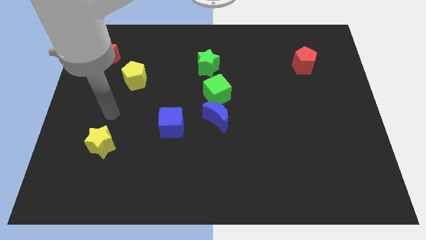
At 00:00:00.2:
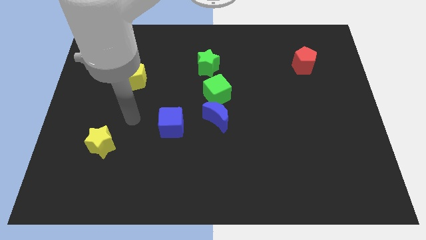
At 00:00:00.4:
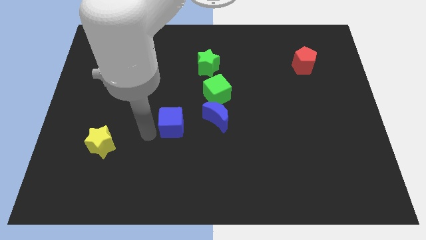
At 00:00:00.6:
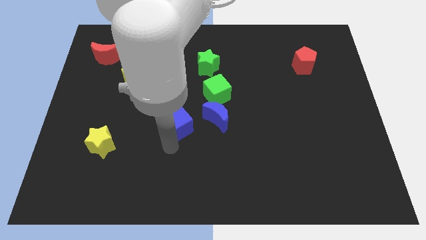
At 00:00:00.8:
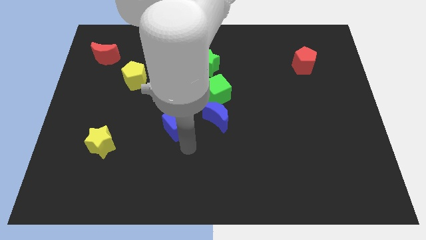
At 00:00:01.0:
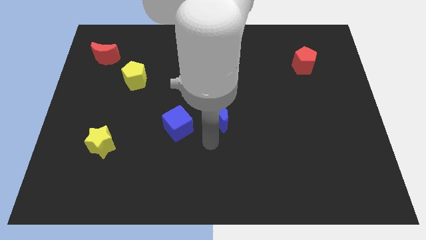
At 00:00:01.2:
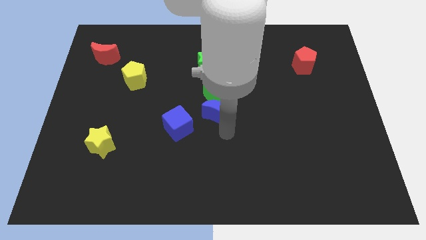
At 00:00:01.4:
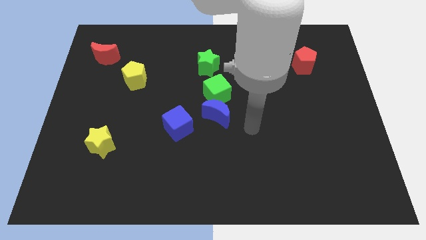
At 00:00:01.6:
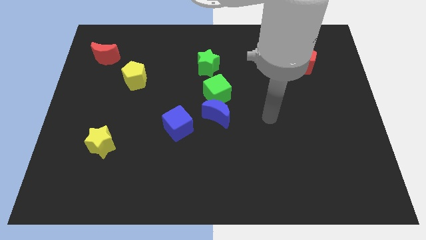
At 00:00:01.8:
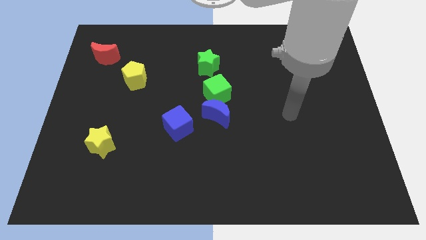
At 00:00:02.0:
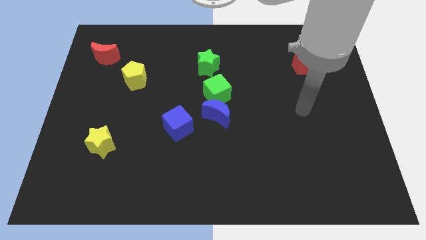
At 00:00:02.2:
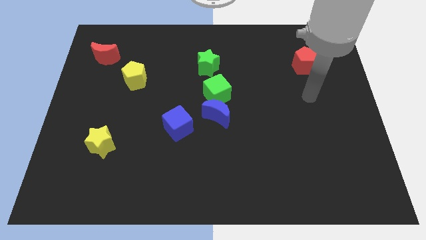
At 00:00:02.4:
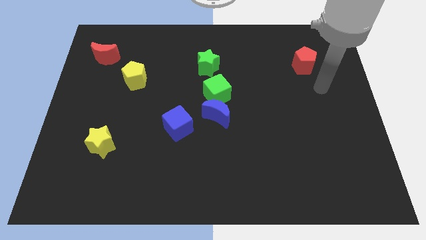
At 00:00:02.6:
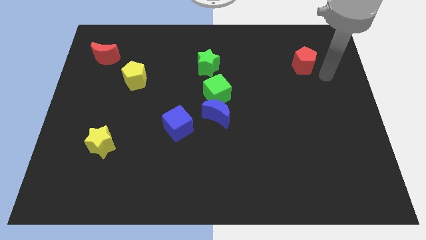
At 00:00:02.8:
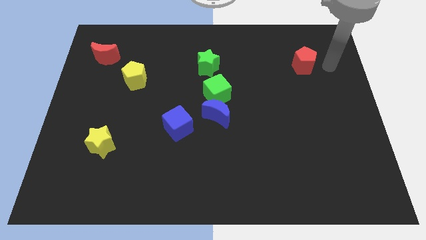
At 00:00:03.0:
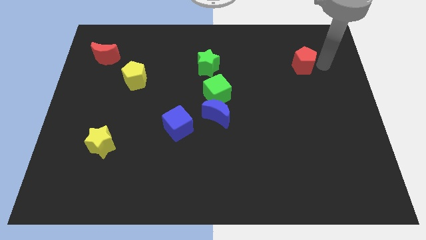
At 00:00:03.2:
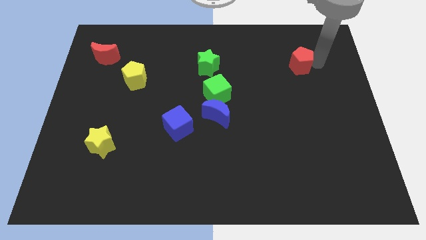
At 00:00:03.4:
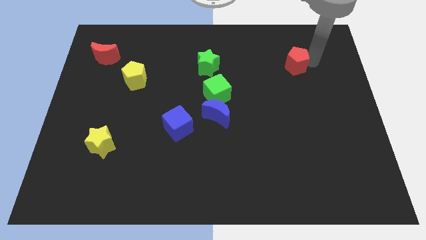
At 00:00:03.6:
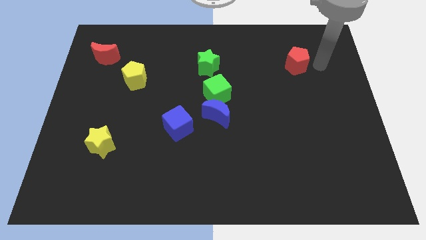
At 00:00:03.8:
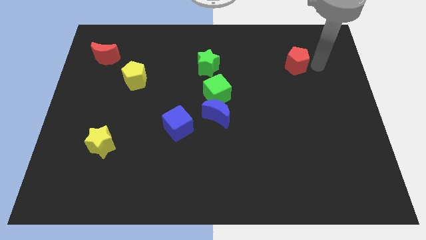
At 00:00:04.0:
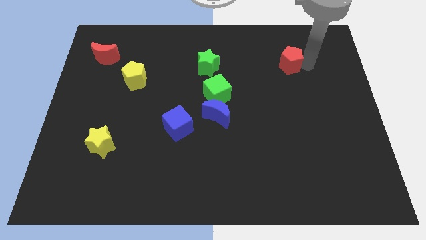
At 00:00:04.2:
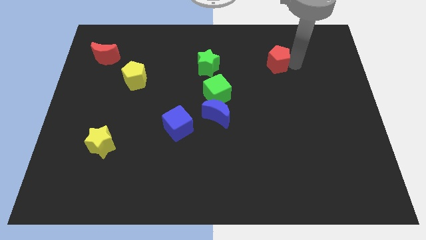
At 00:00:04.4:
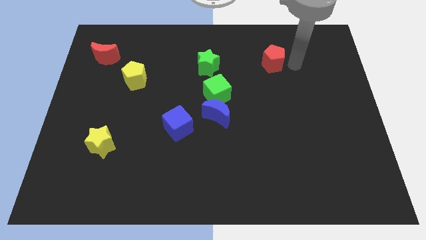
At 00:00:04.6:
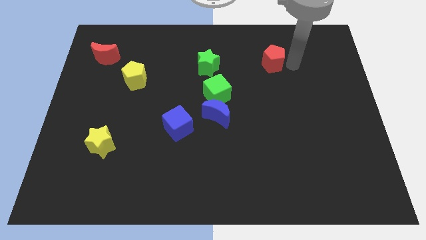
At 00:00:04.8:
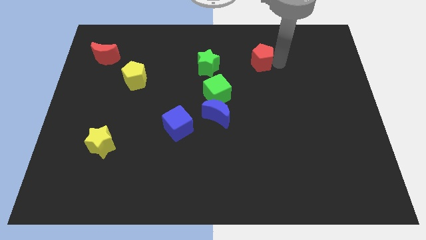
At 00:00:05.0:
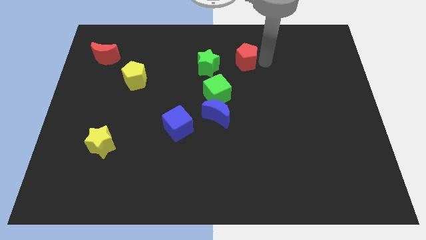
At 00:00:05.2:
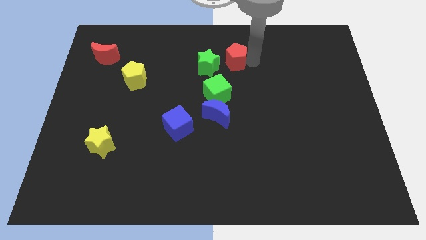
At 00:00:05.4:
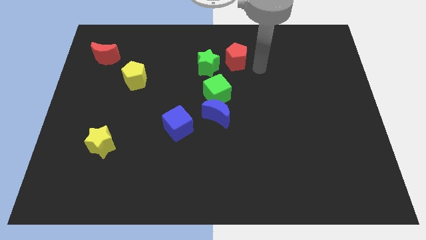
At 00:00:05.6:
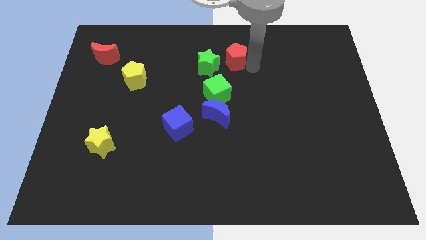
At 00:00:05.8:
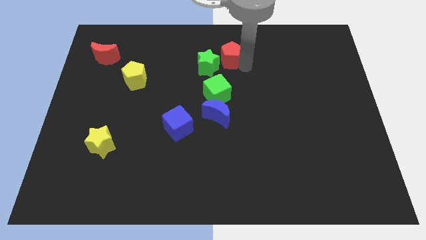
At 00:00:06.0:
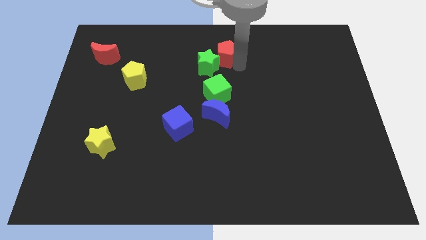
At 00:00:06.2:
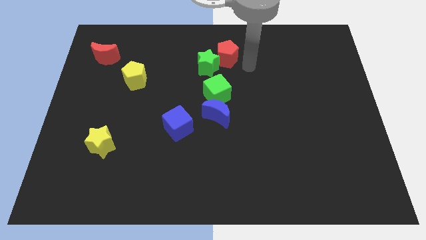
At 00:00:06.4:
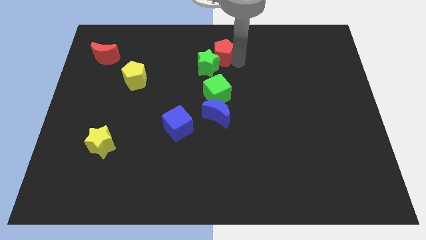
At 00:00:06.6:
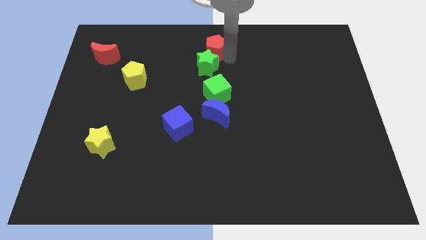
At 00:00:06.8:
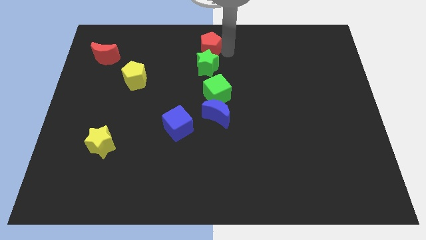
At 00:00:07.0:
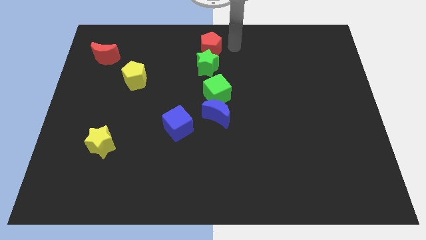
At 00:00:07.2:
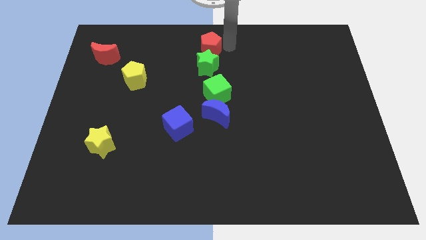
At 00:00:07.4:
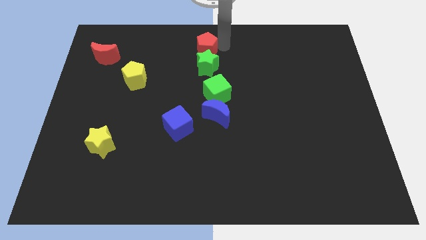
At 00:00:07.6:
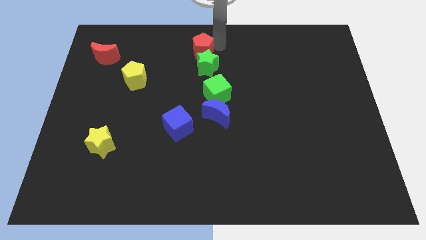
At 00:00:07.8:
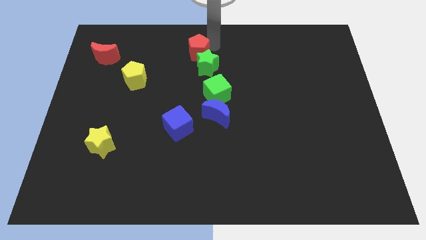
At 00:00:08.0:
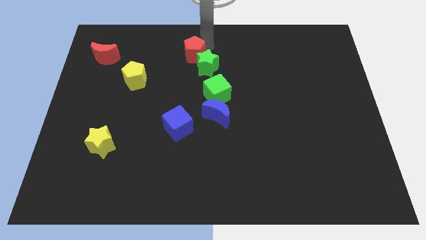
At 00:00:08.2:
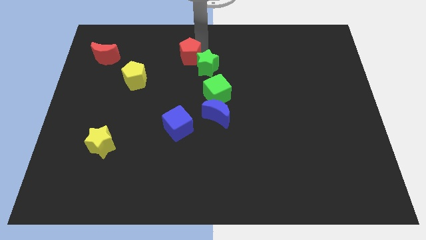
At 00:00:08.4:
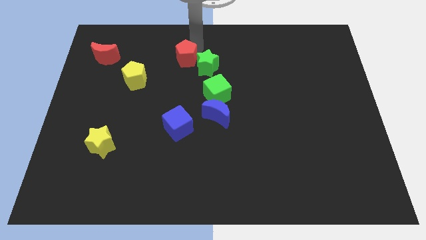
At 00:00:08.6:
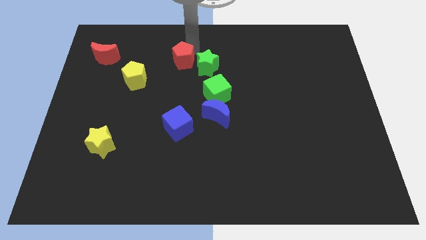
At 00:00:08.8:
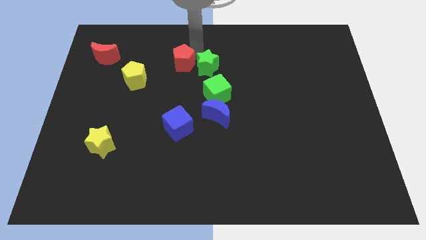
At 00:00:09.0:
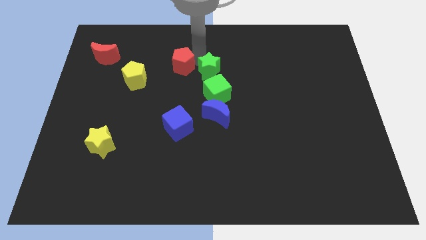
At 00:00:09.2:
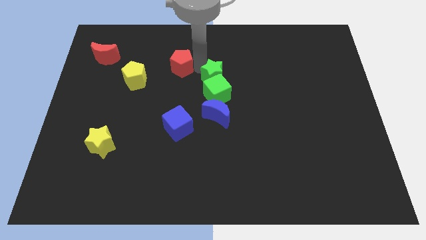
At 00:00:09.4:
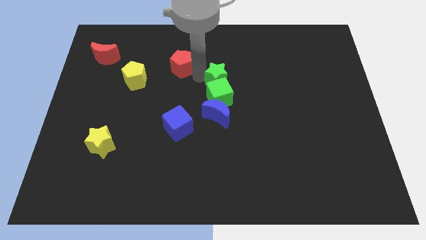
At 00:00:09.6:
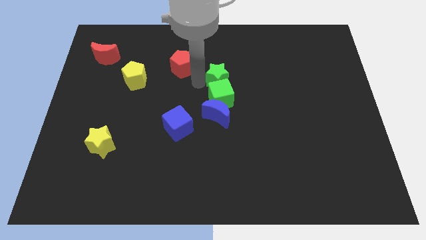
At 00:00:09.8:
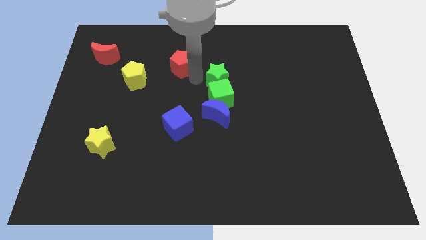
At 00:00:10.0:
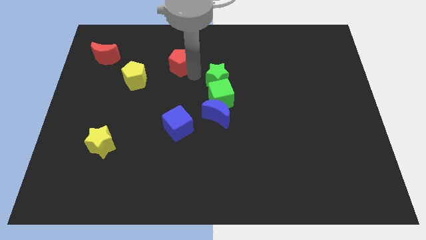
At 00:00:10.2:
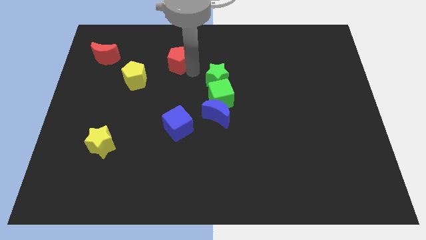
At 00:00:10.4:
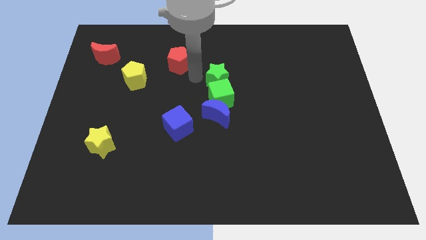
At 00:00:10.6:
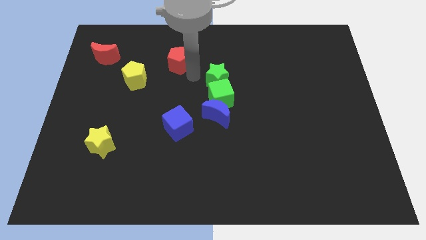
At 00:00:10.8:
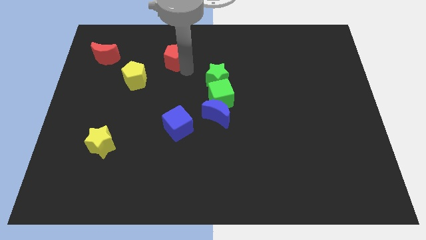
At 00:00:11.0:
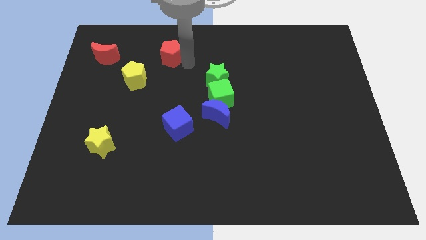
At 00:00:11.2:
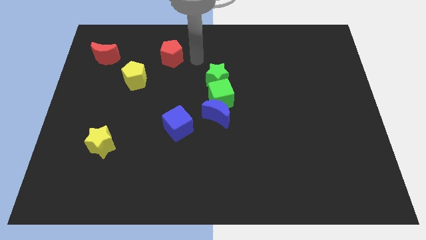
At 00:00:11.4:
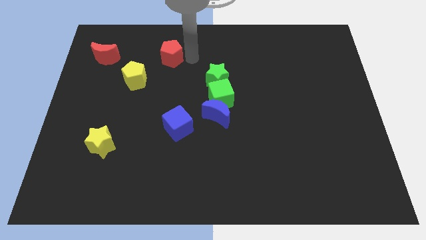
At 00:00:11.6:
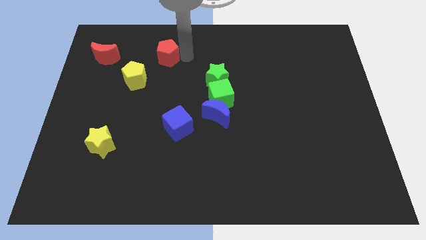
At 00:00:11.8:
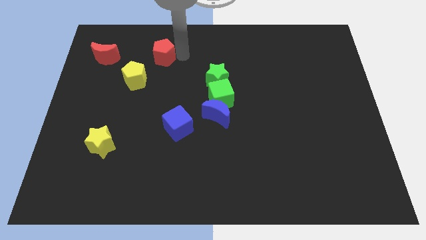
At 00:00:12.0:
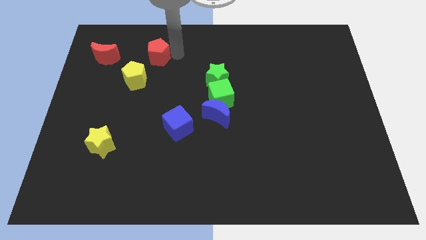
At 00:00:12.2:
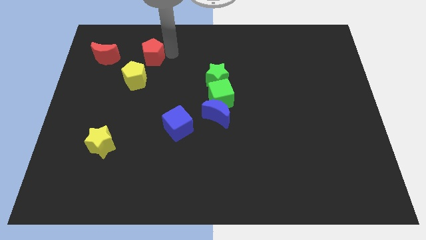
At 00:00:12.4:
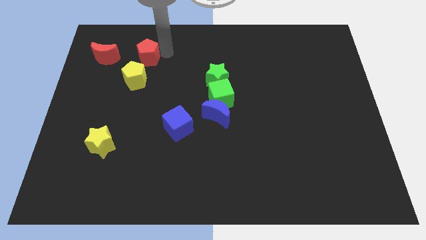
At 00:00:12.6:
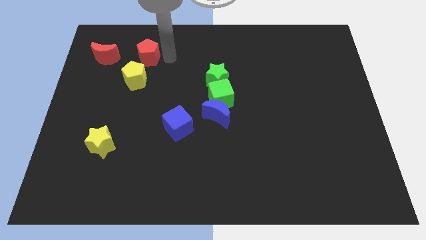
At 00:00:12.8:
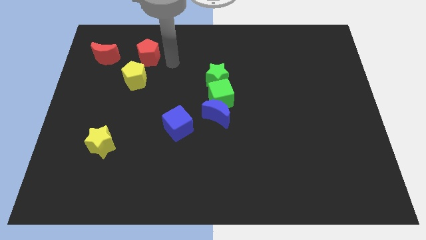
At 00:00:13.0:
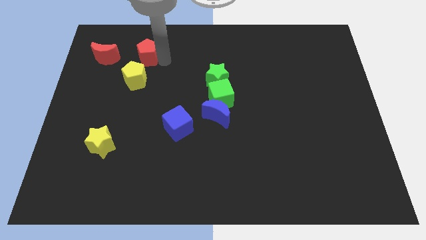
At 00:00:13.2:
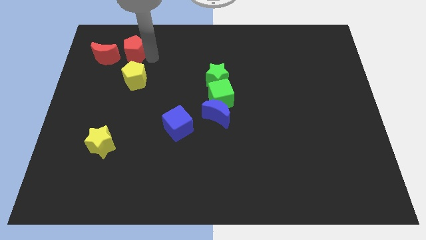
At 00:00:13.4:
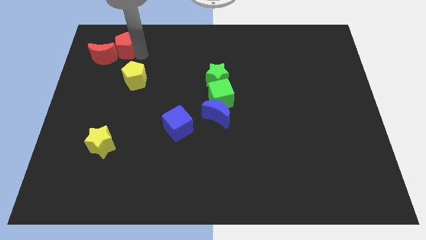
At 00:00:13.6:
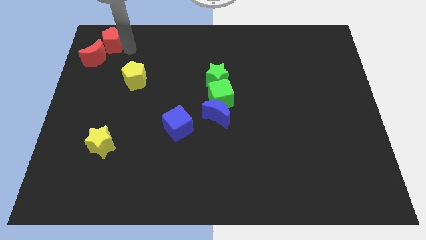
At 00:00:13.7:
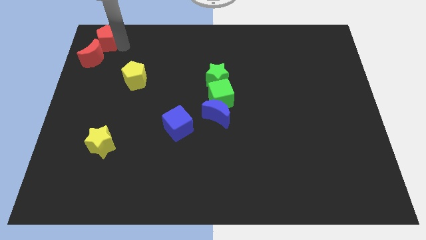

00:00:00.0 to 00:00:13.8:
put the red pentagon to the top left corner
